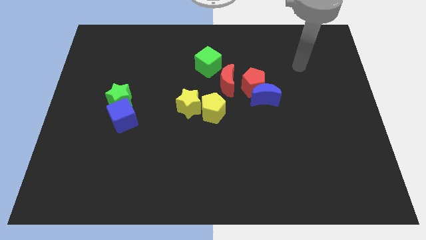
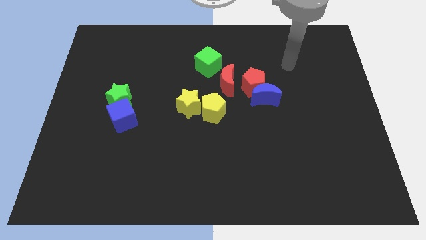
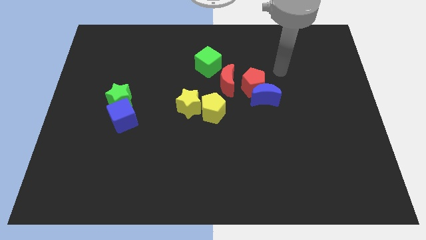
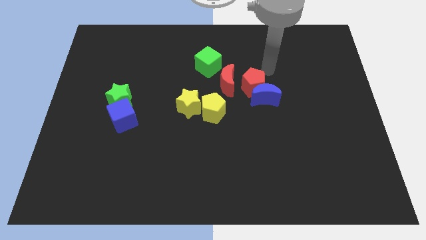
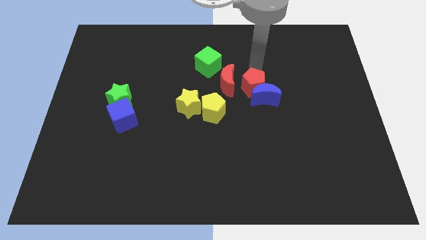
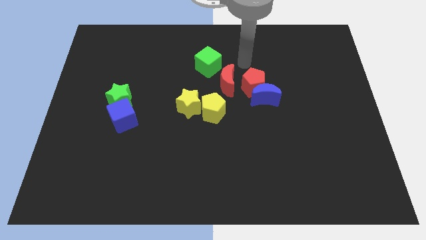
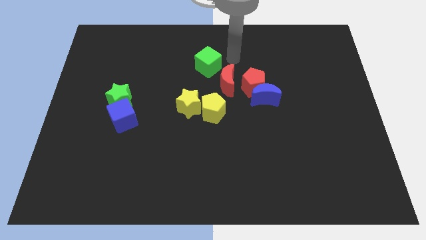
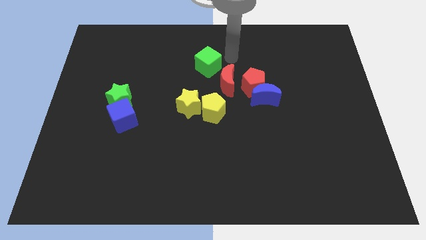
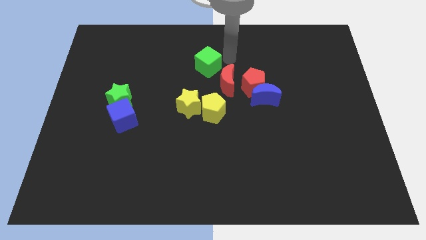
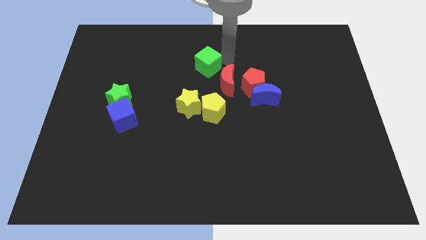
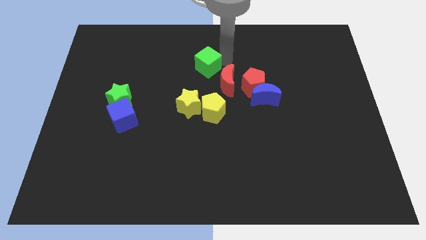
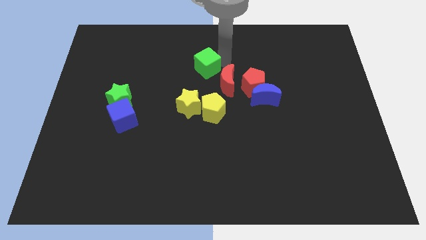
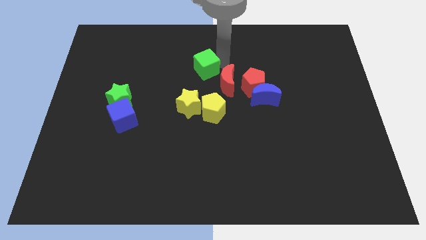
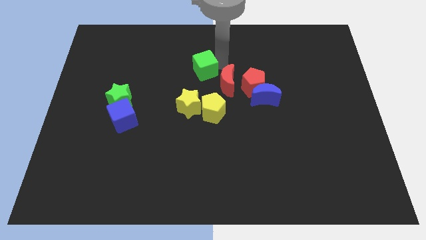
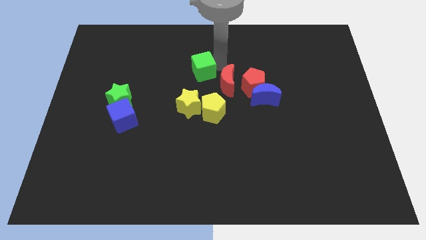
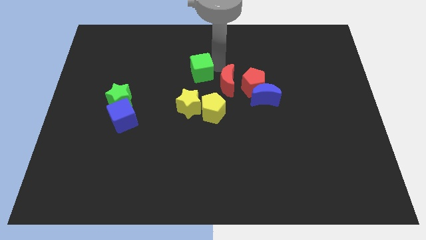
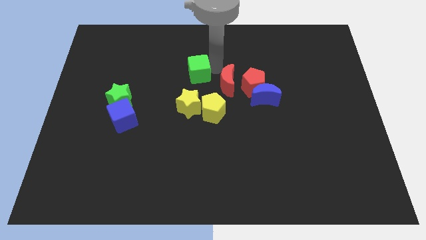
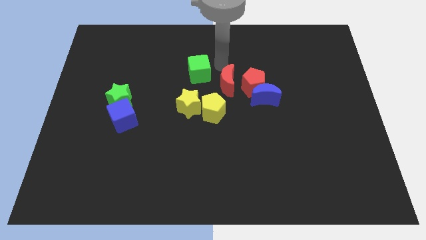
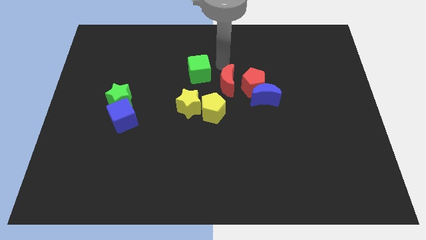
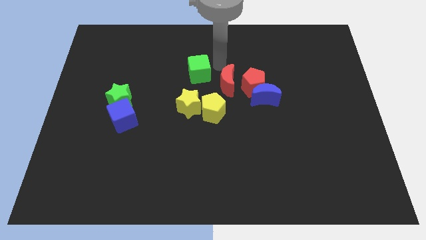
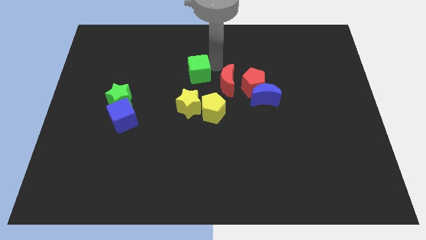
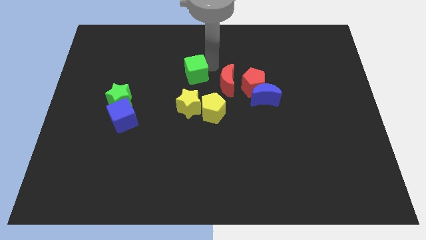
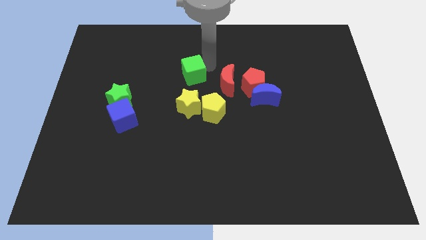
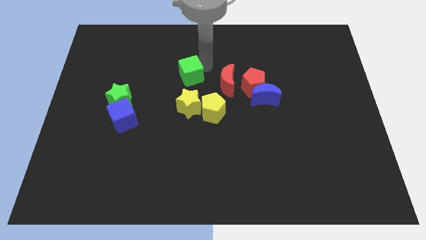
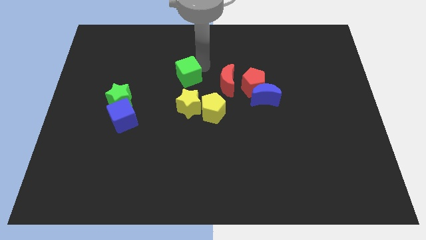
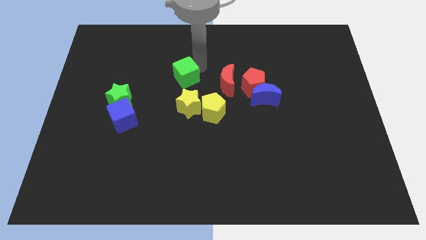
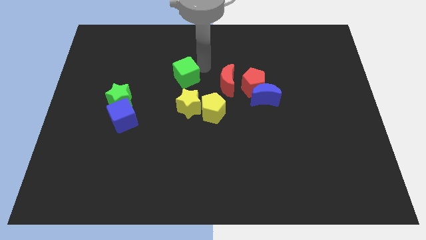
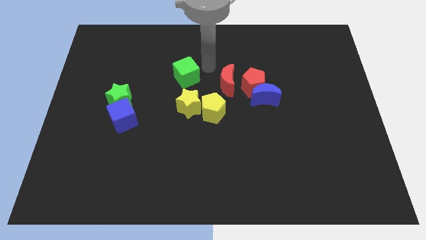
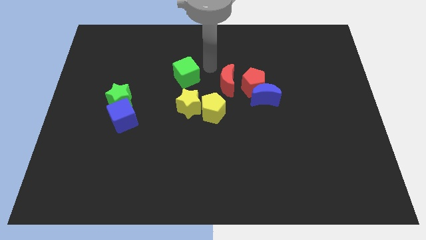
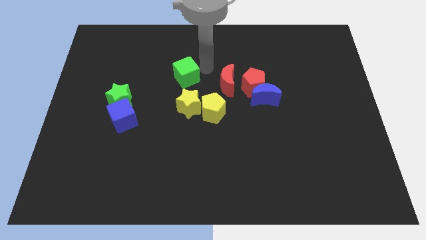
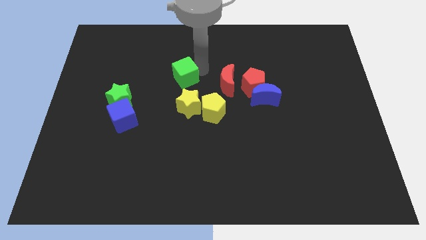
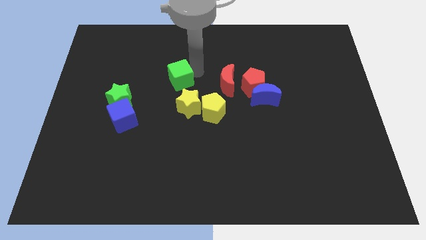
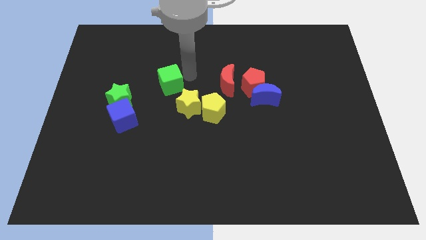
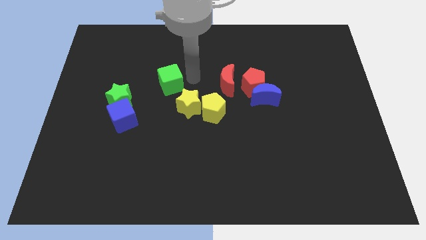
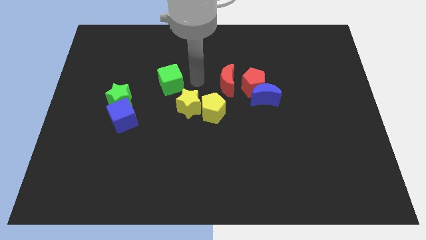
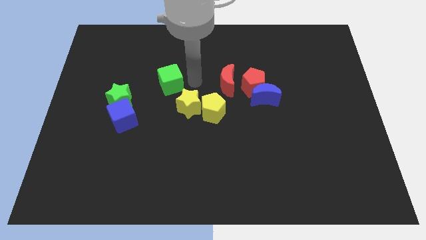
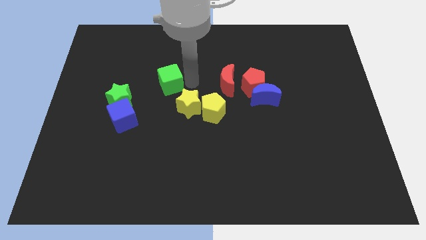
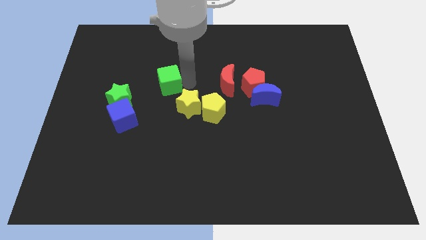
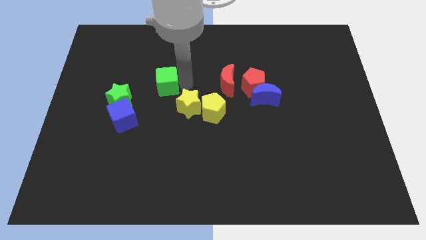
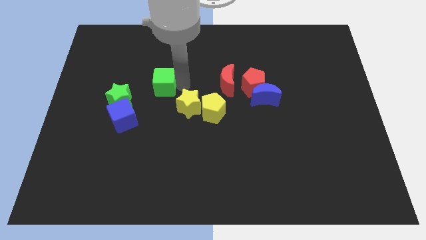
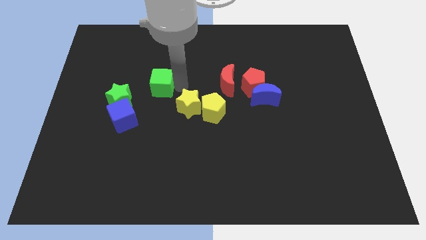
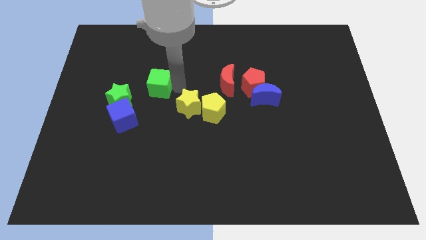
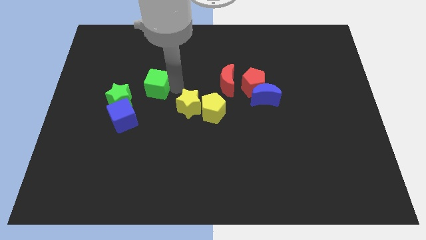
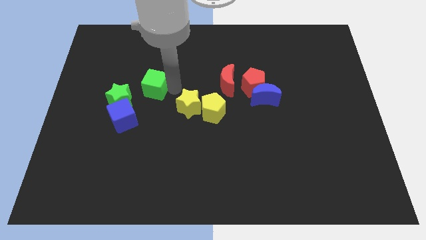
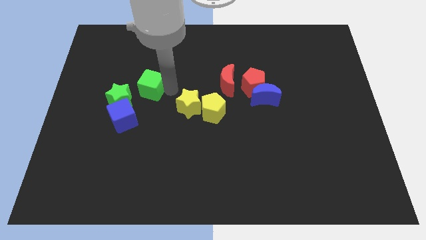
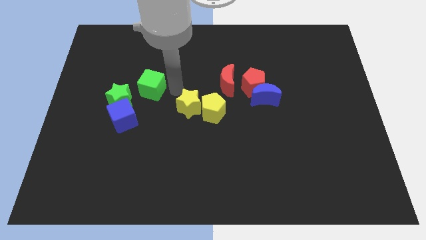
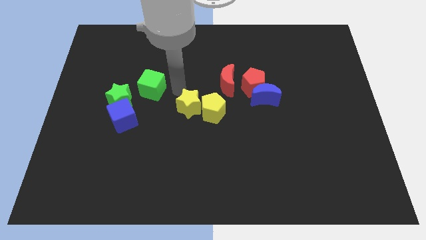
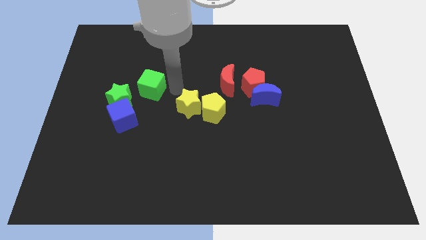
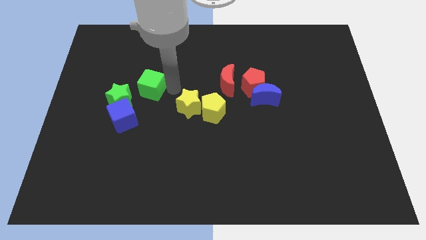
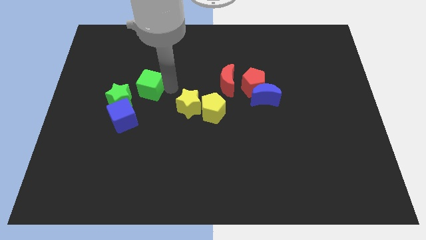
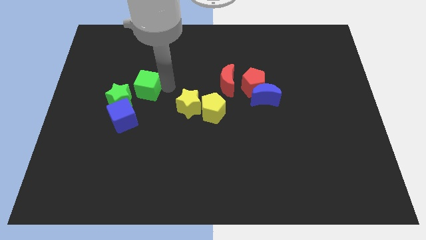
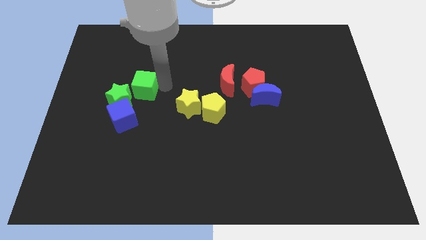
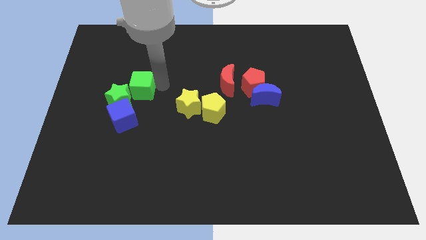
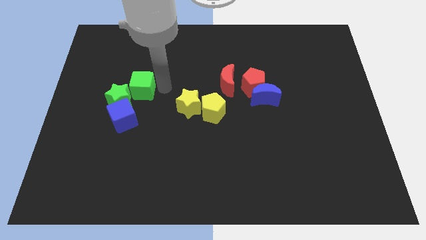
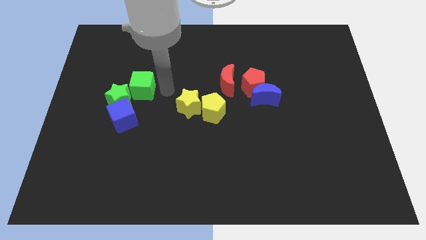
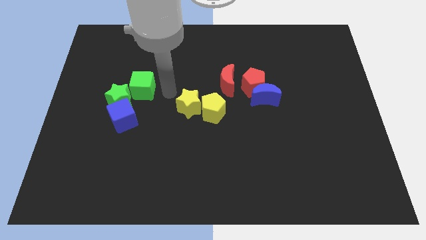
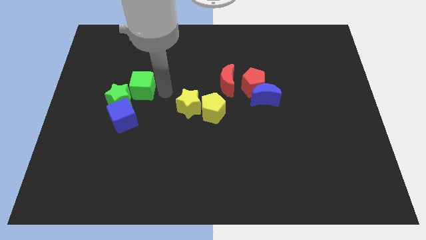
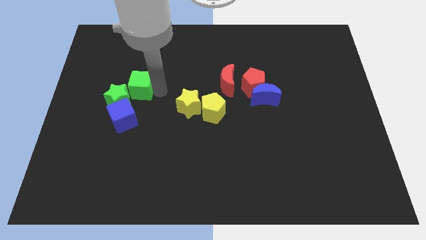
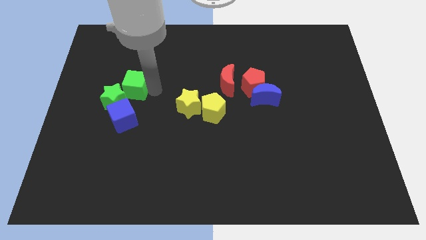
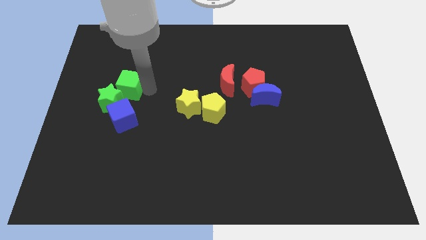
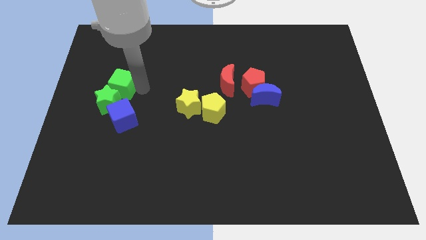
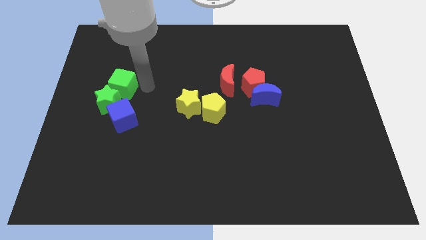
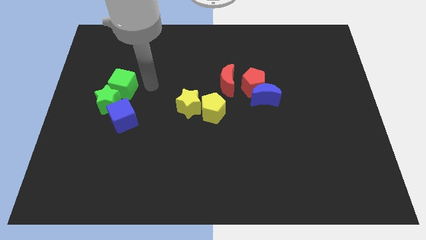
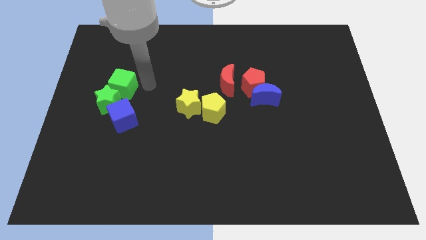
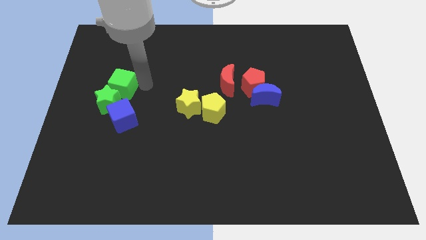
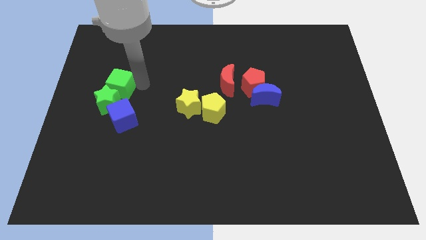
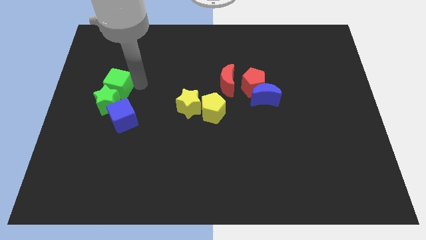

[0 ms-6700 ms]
put the green cube diagonally up and to the left of the blue cube

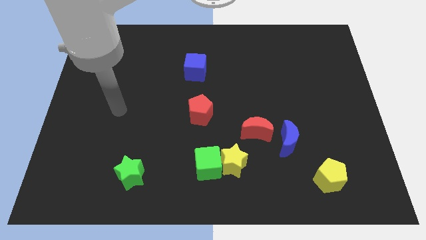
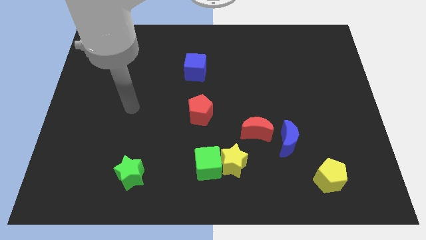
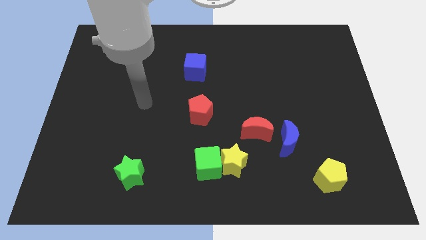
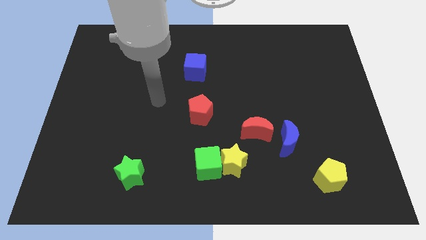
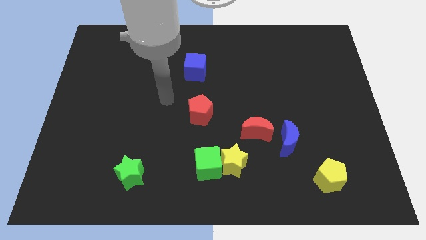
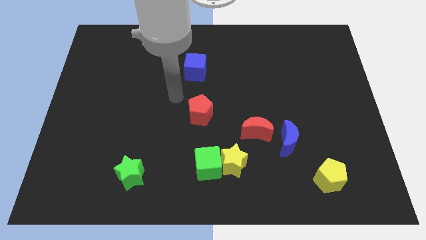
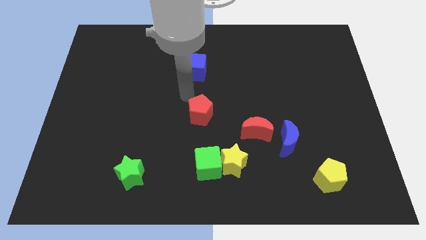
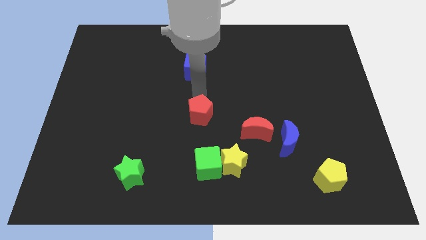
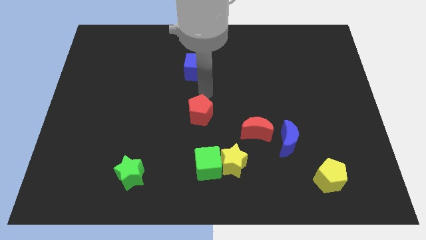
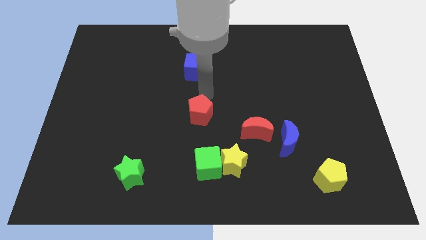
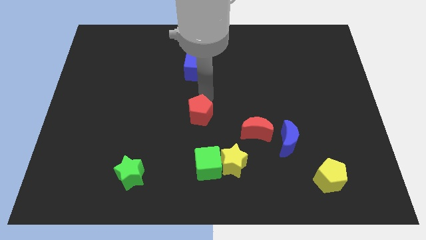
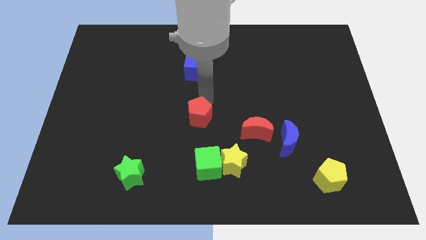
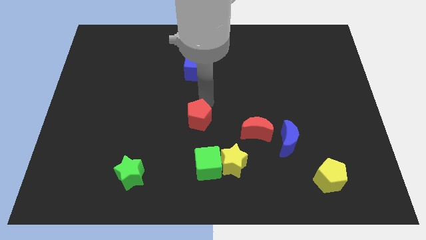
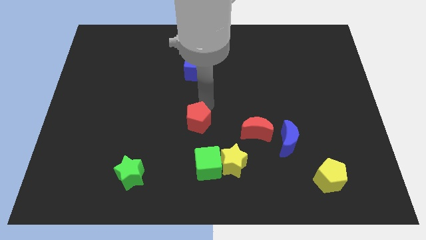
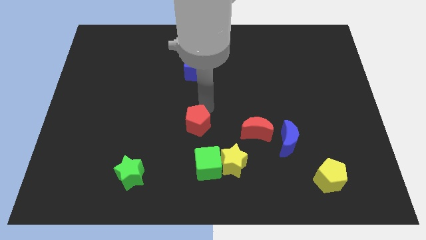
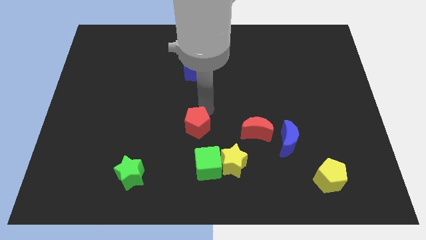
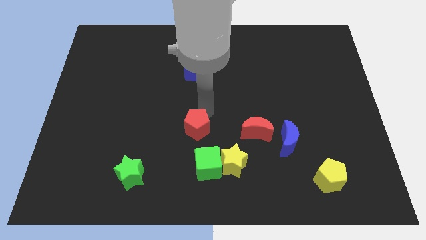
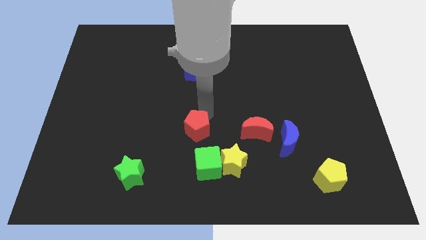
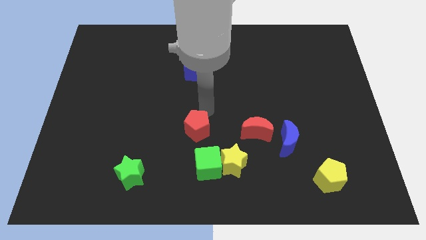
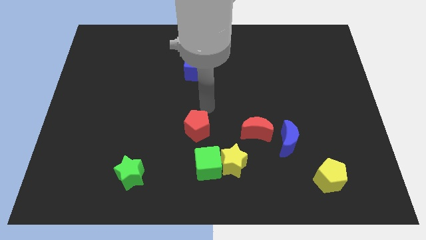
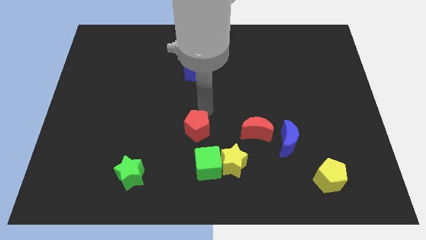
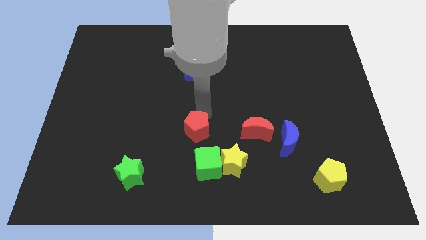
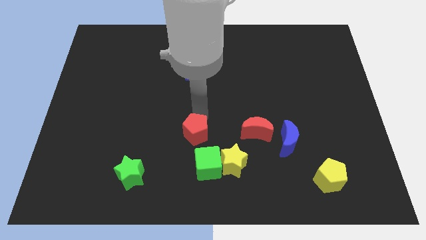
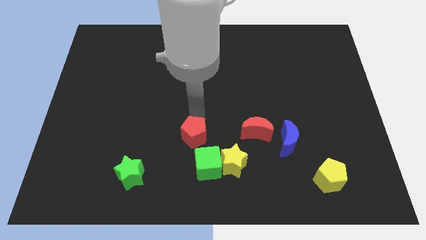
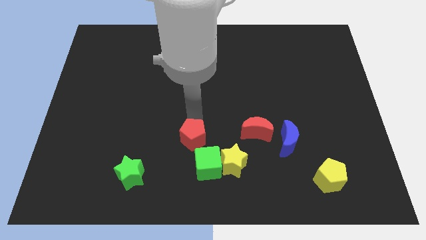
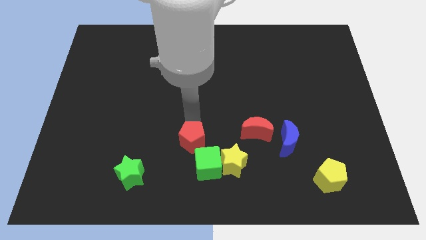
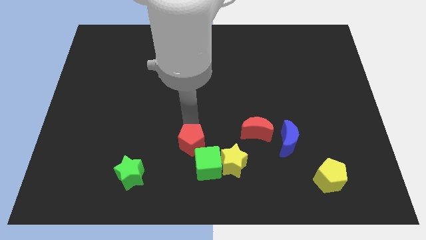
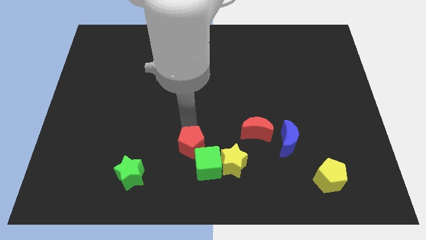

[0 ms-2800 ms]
push the red pentagon just left of the yellow star
